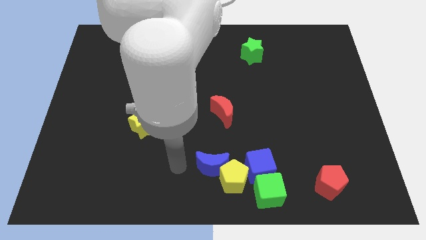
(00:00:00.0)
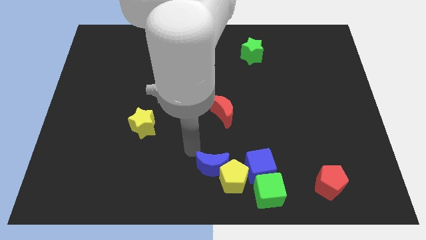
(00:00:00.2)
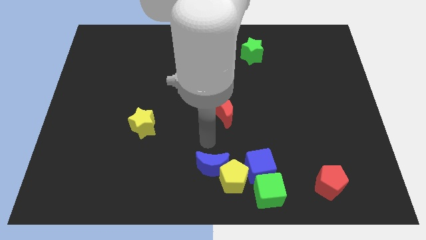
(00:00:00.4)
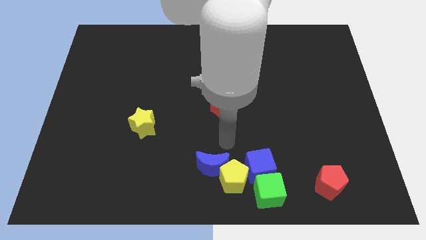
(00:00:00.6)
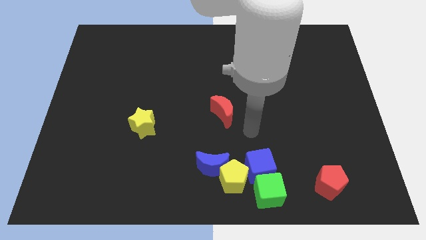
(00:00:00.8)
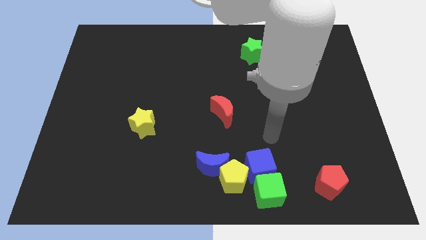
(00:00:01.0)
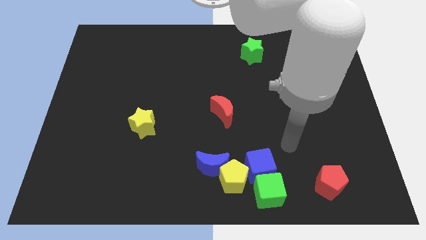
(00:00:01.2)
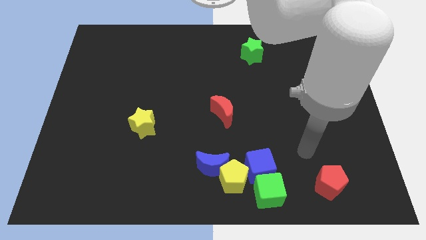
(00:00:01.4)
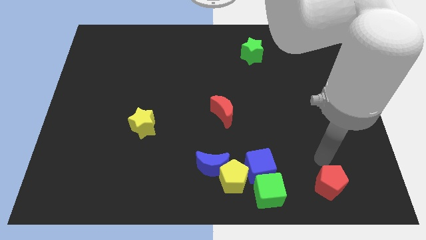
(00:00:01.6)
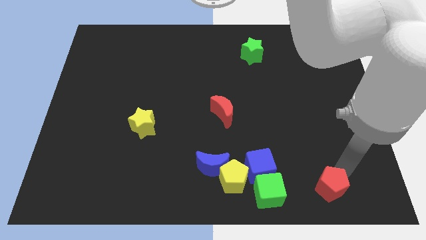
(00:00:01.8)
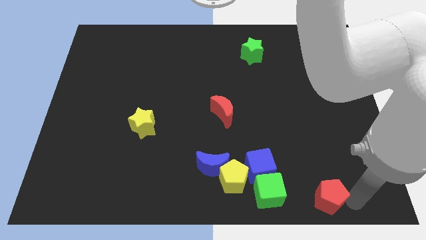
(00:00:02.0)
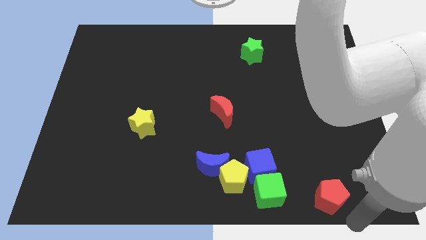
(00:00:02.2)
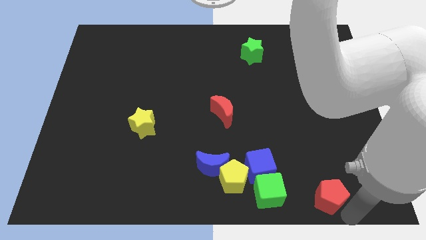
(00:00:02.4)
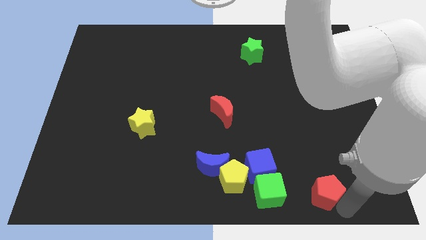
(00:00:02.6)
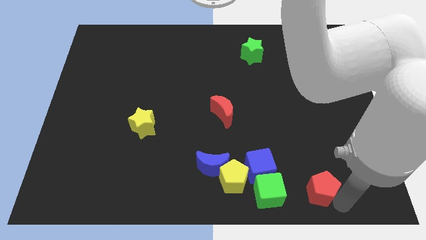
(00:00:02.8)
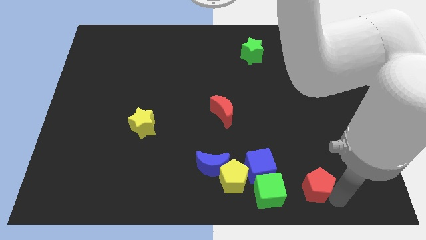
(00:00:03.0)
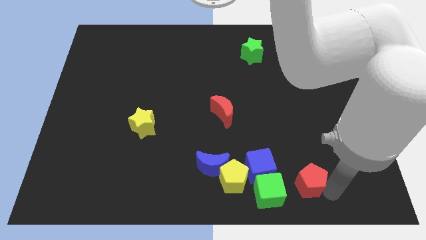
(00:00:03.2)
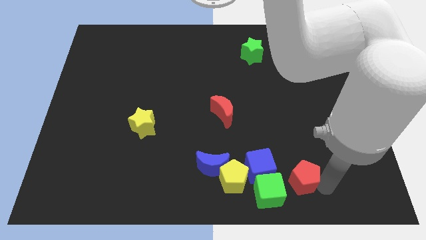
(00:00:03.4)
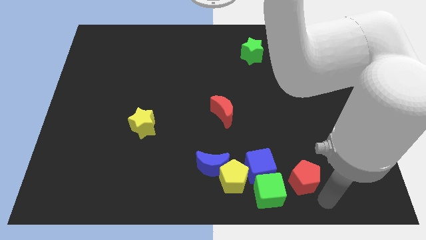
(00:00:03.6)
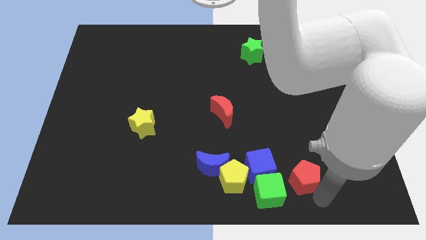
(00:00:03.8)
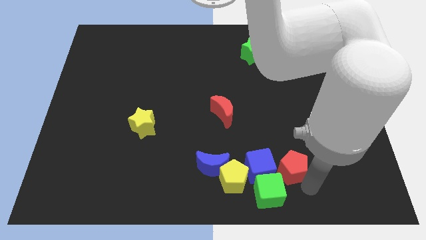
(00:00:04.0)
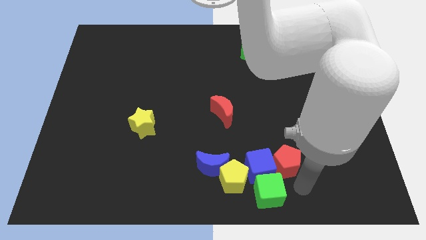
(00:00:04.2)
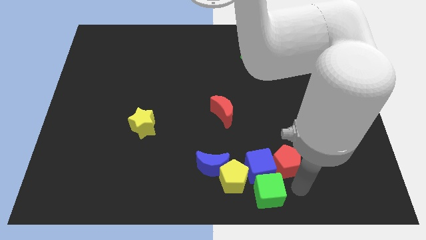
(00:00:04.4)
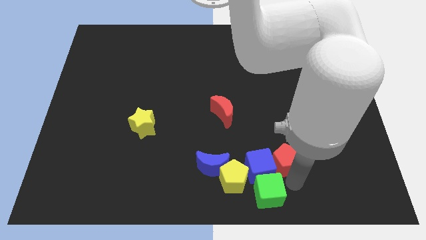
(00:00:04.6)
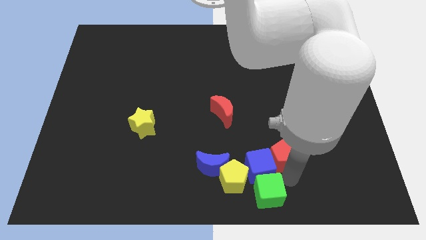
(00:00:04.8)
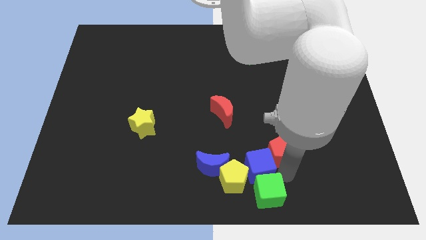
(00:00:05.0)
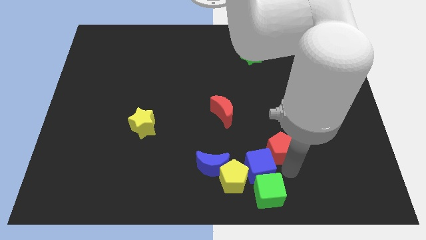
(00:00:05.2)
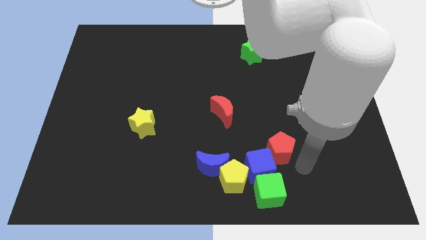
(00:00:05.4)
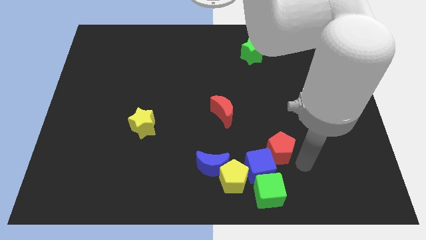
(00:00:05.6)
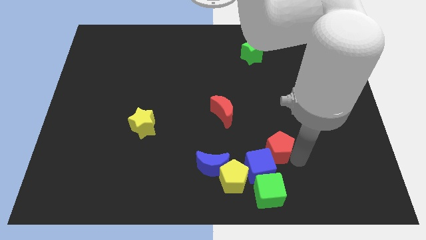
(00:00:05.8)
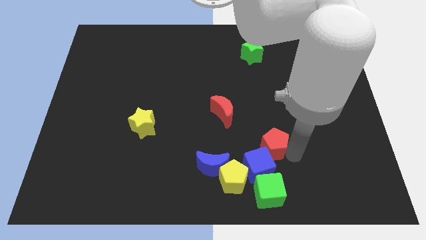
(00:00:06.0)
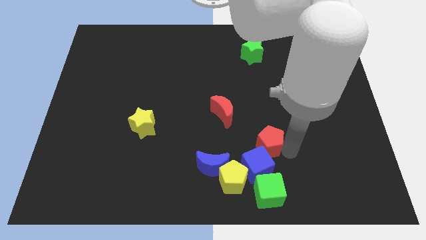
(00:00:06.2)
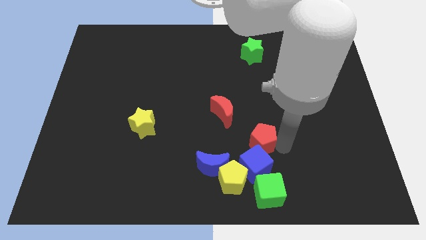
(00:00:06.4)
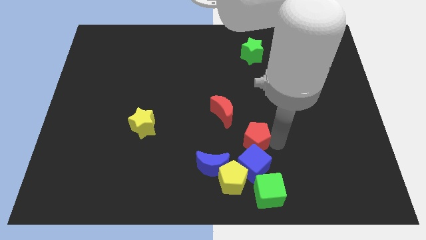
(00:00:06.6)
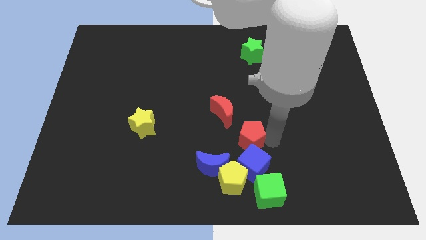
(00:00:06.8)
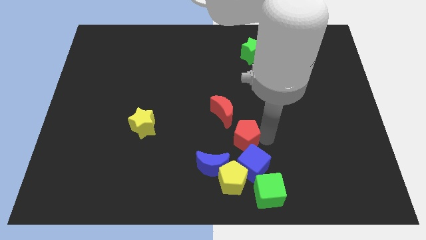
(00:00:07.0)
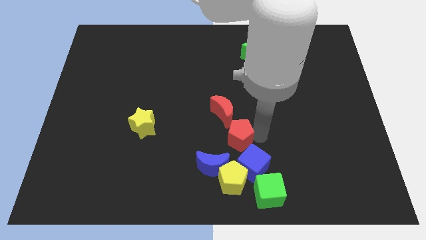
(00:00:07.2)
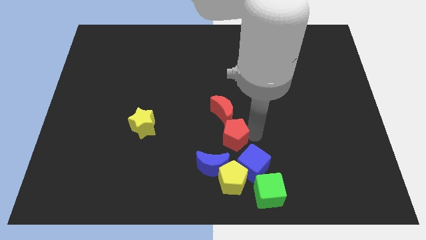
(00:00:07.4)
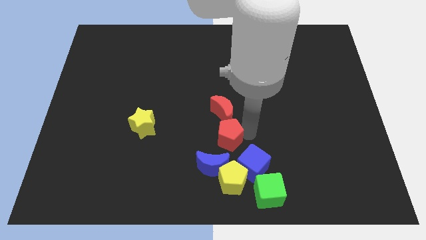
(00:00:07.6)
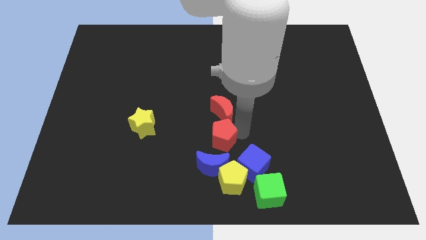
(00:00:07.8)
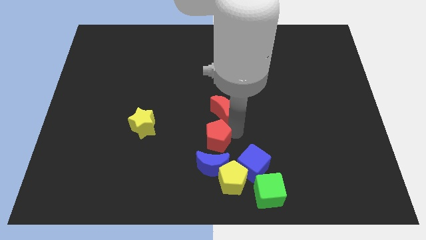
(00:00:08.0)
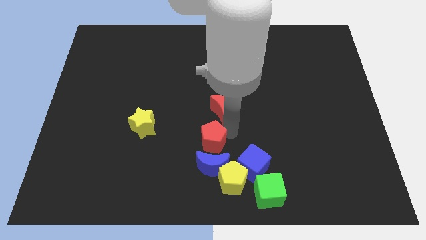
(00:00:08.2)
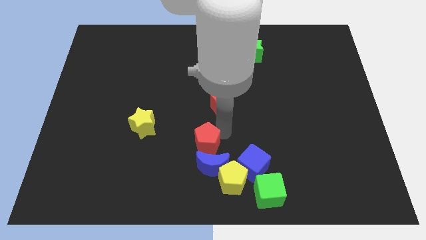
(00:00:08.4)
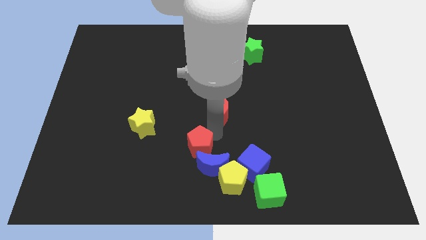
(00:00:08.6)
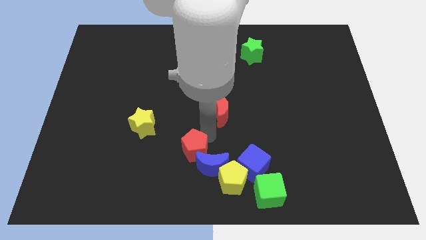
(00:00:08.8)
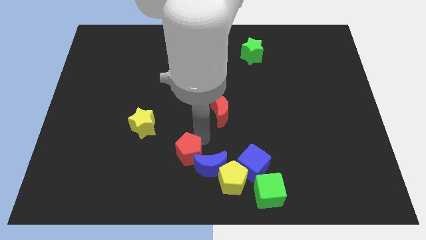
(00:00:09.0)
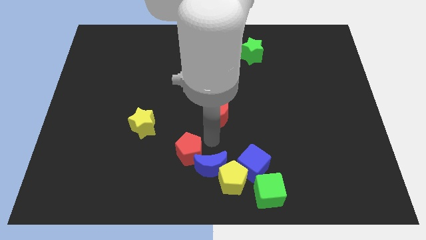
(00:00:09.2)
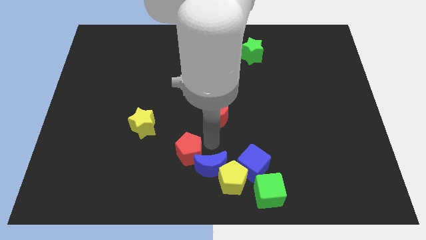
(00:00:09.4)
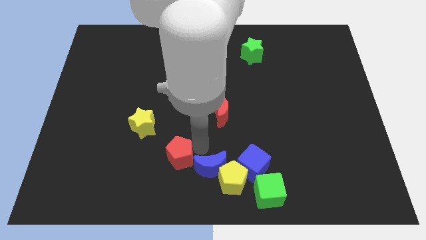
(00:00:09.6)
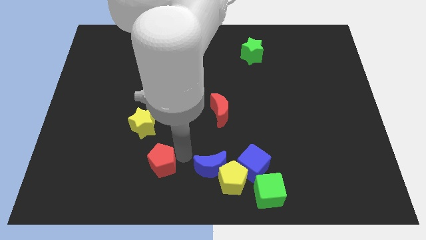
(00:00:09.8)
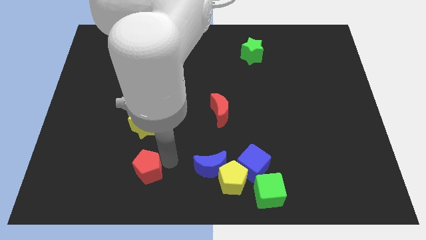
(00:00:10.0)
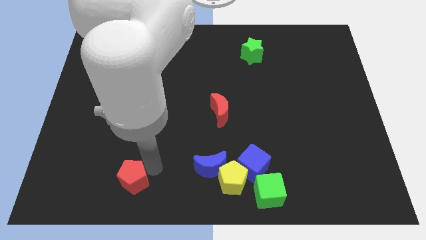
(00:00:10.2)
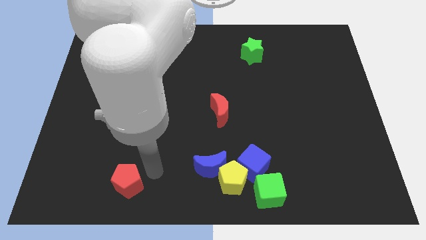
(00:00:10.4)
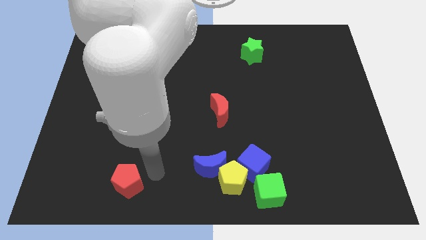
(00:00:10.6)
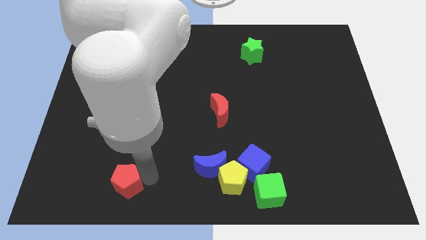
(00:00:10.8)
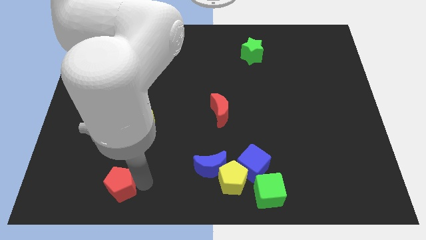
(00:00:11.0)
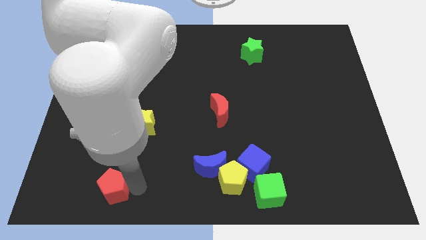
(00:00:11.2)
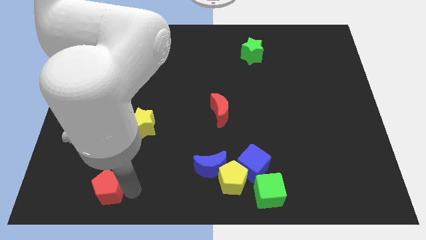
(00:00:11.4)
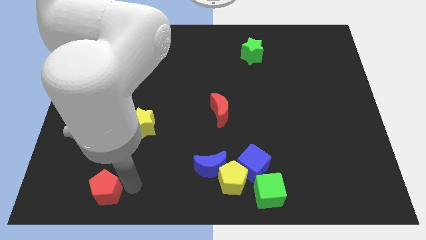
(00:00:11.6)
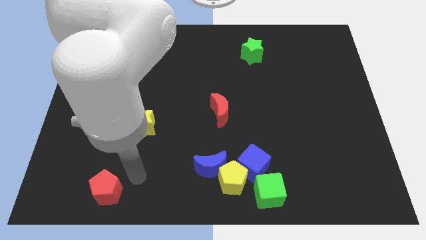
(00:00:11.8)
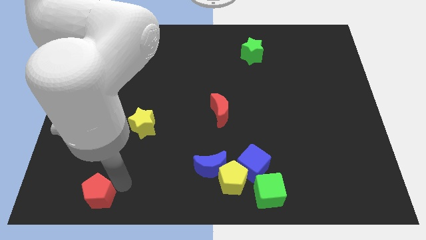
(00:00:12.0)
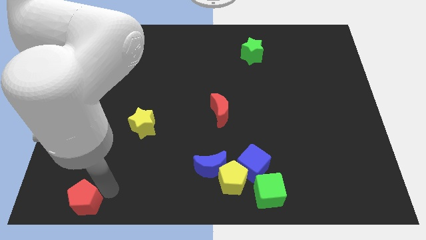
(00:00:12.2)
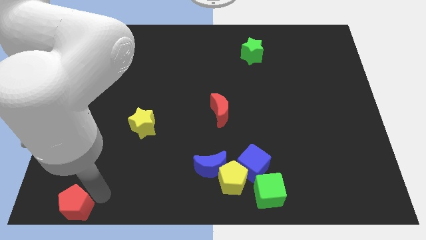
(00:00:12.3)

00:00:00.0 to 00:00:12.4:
push the red pentagon to the lower left corner

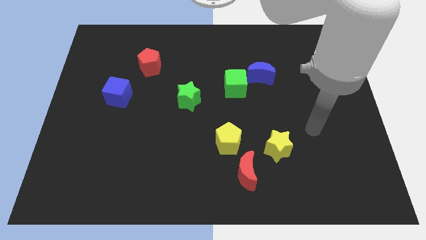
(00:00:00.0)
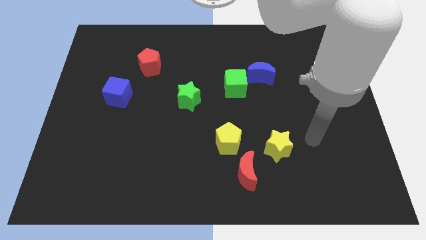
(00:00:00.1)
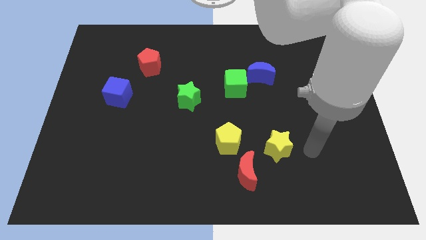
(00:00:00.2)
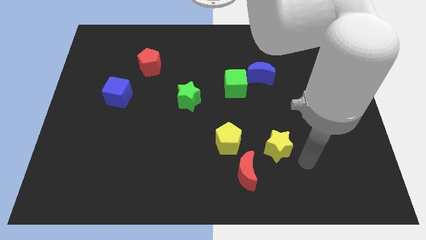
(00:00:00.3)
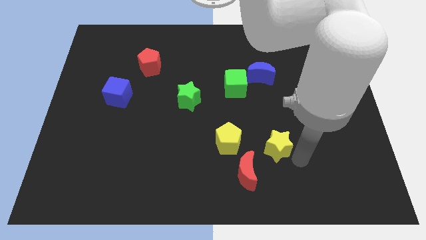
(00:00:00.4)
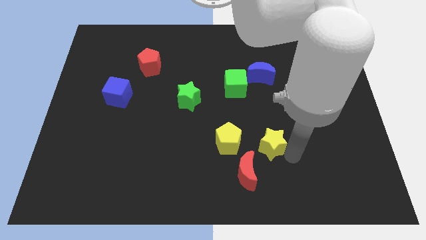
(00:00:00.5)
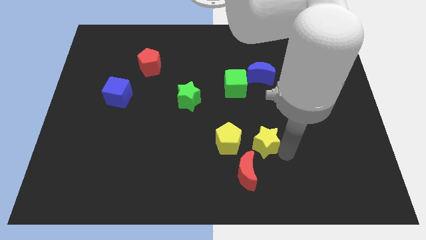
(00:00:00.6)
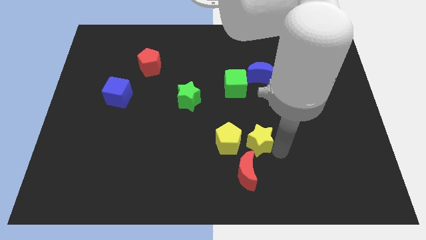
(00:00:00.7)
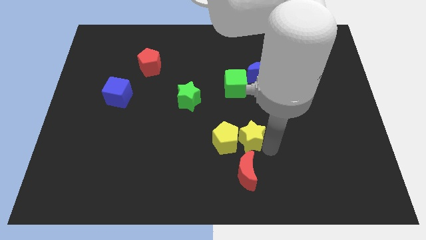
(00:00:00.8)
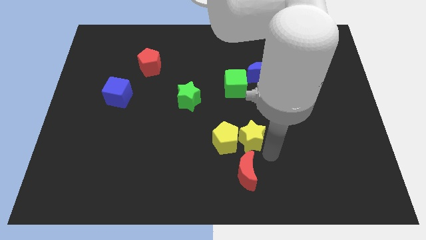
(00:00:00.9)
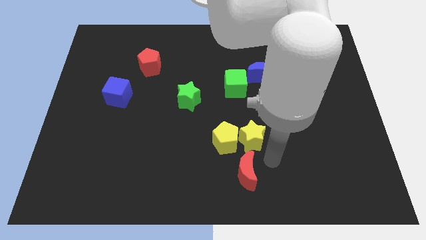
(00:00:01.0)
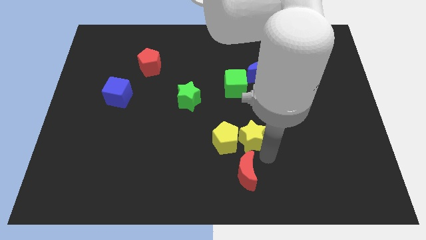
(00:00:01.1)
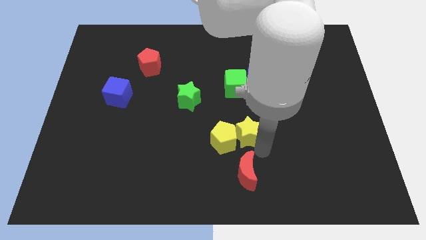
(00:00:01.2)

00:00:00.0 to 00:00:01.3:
push the yellow star to the center of the board
